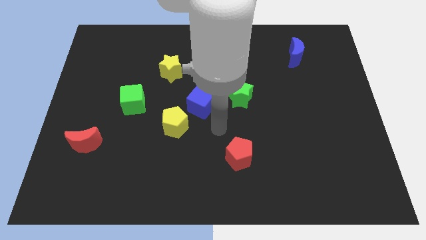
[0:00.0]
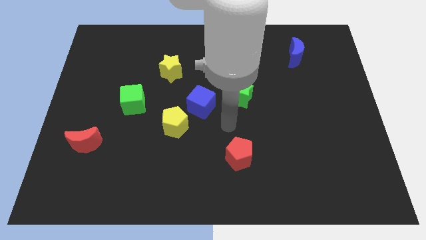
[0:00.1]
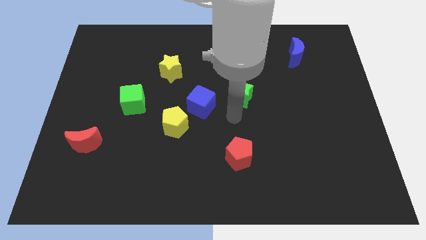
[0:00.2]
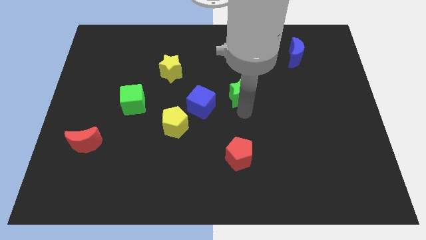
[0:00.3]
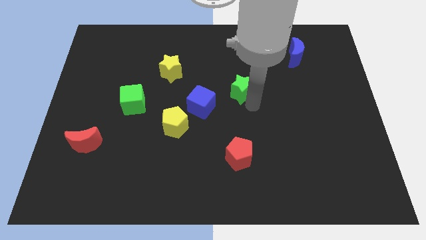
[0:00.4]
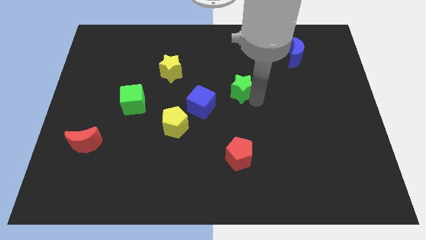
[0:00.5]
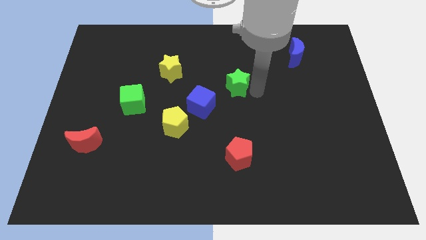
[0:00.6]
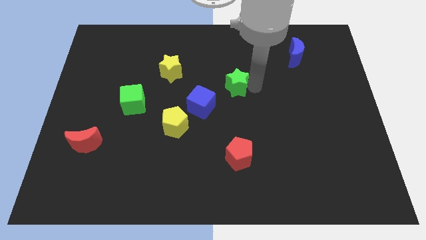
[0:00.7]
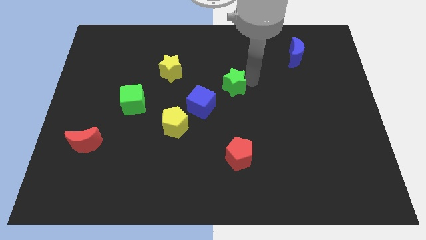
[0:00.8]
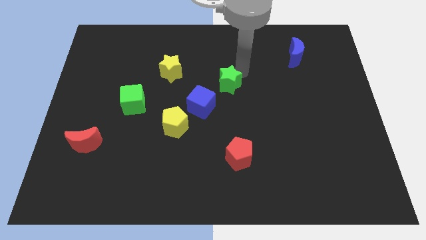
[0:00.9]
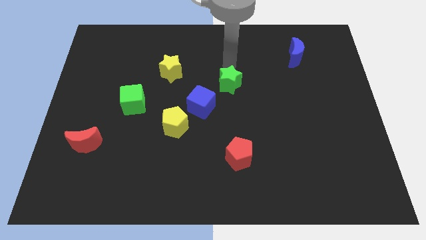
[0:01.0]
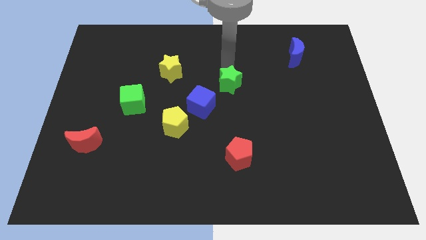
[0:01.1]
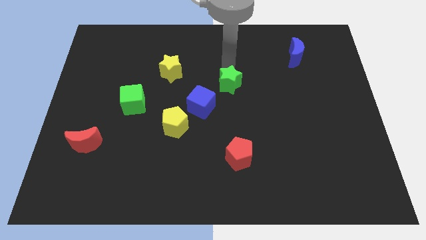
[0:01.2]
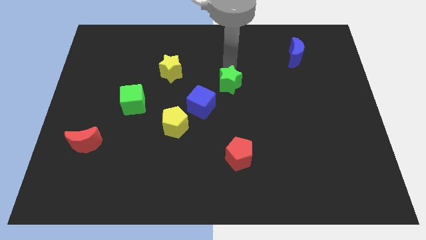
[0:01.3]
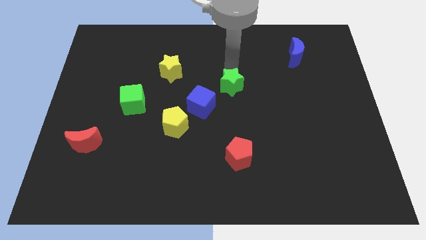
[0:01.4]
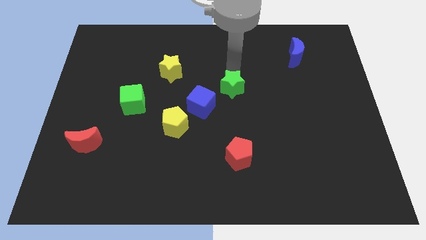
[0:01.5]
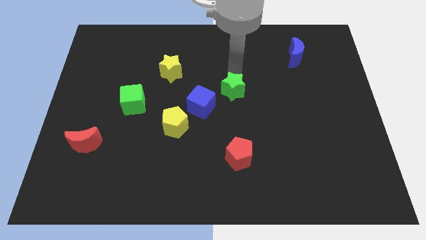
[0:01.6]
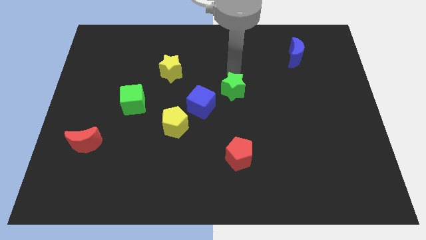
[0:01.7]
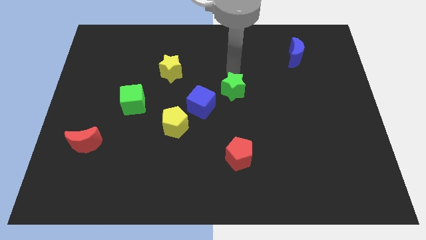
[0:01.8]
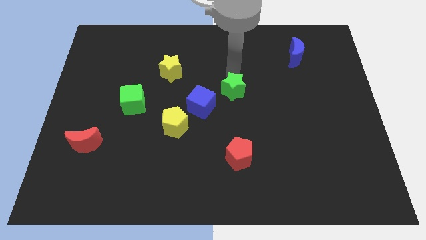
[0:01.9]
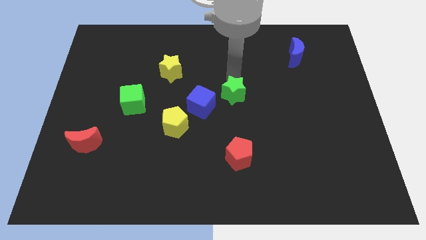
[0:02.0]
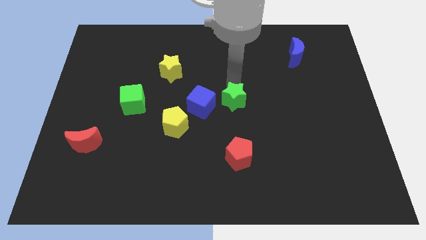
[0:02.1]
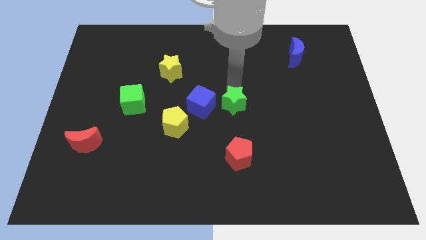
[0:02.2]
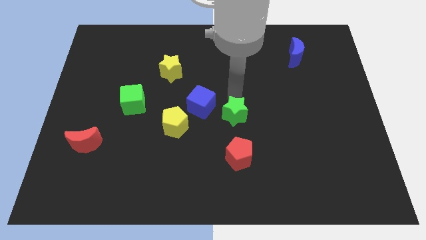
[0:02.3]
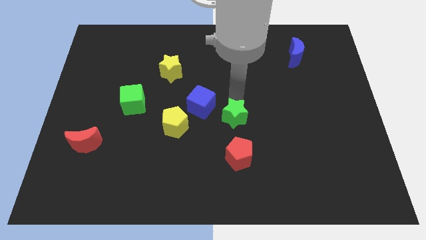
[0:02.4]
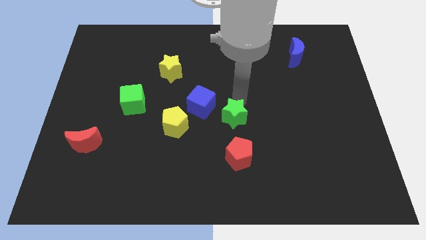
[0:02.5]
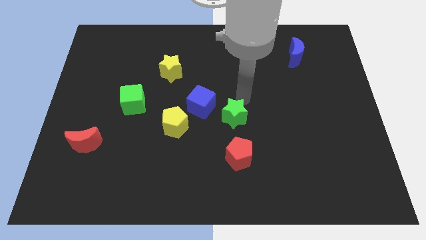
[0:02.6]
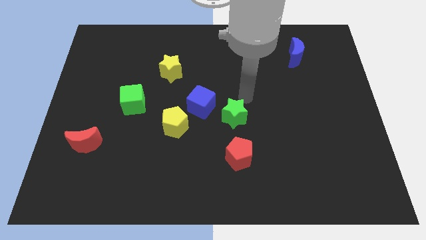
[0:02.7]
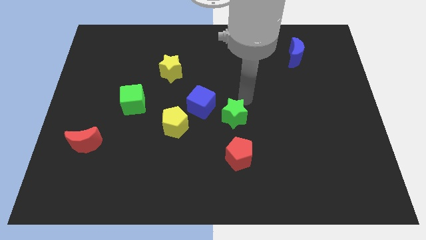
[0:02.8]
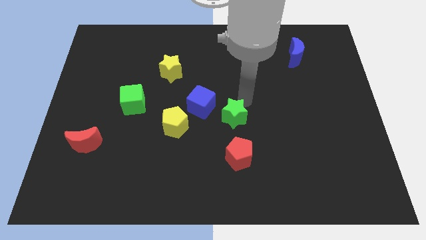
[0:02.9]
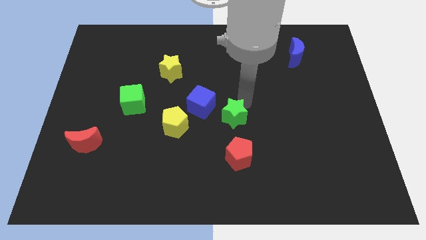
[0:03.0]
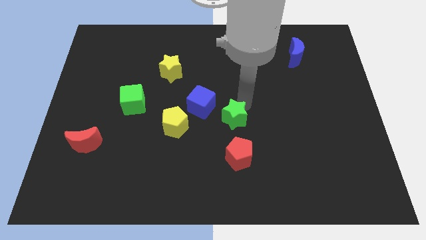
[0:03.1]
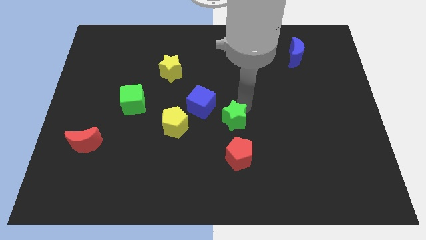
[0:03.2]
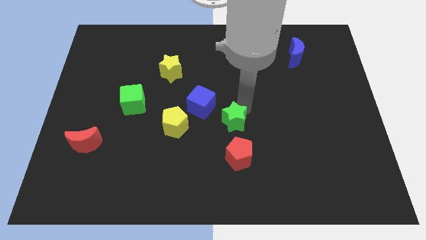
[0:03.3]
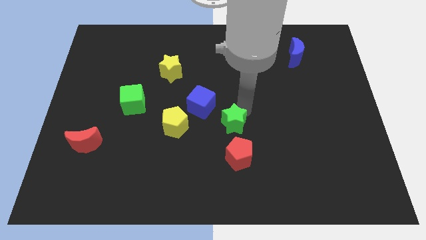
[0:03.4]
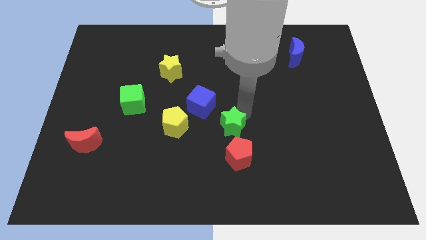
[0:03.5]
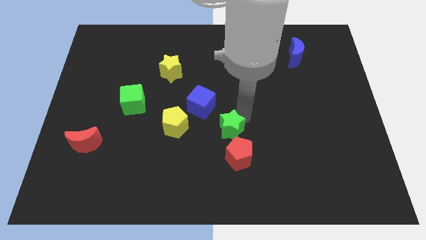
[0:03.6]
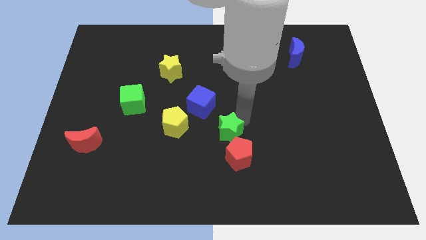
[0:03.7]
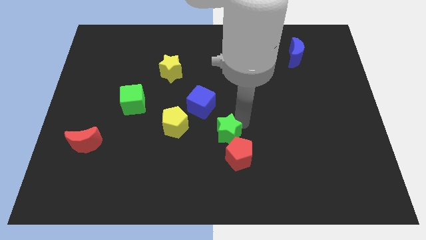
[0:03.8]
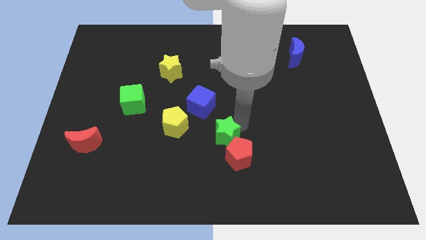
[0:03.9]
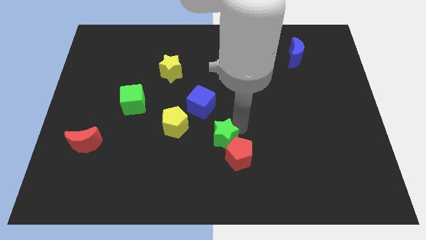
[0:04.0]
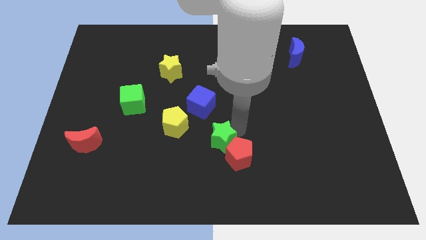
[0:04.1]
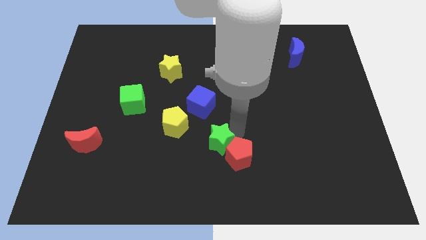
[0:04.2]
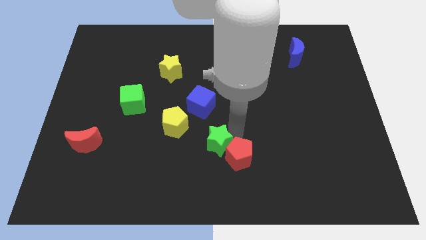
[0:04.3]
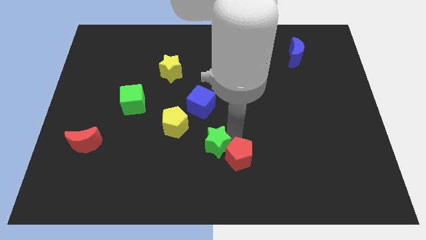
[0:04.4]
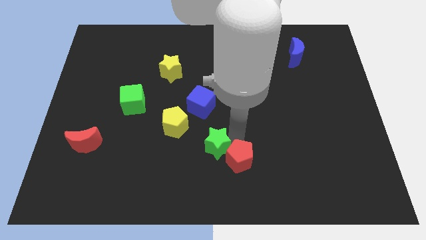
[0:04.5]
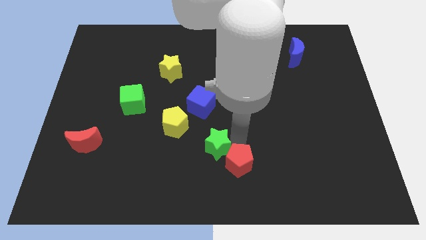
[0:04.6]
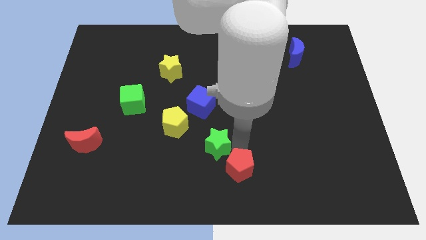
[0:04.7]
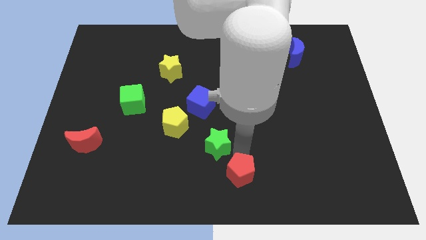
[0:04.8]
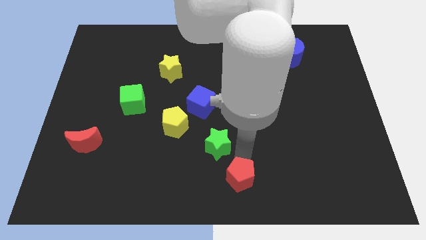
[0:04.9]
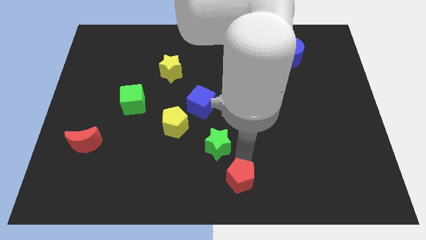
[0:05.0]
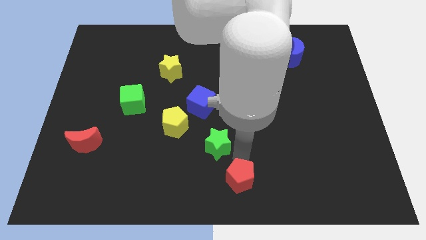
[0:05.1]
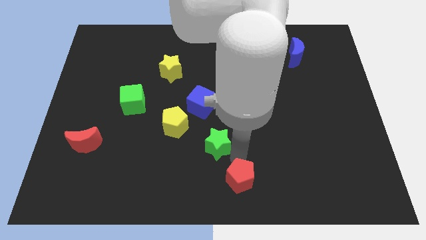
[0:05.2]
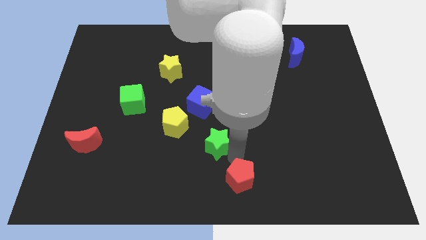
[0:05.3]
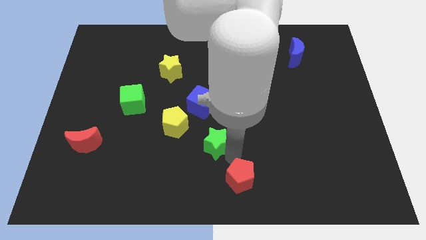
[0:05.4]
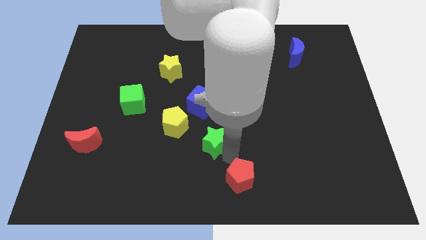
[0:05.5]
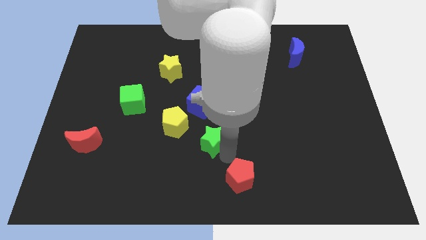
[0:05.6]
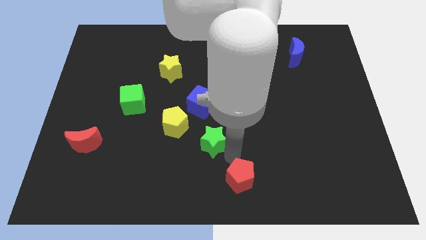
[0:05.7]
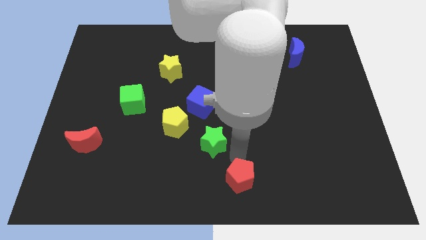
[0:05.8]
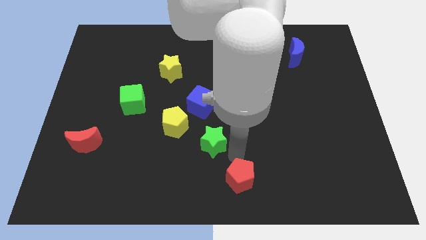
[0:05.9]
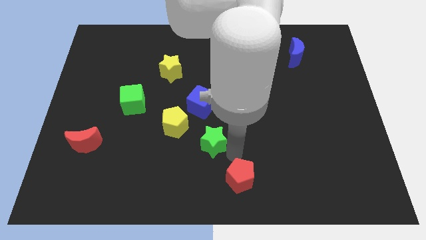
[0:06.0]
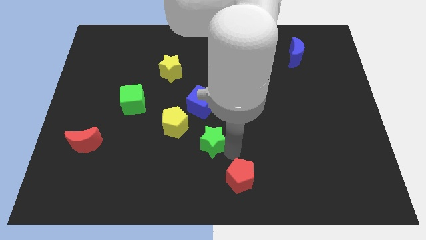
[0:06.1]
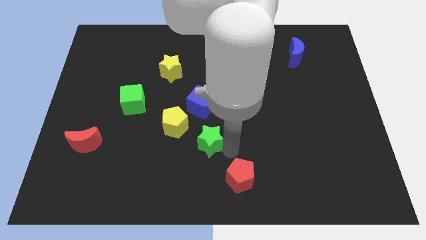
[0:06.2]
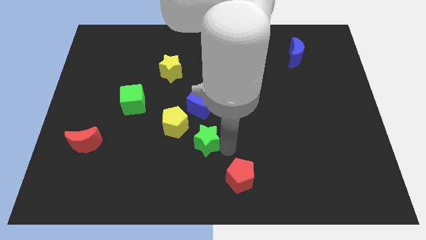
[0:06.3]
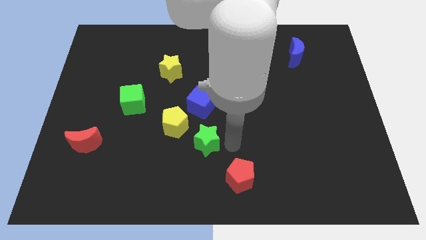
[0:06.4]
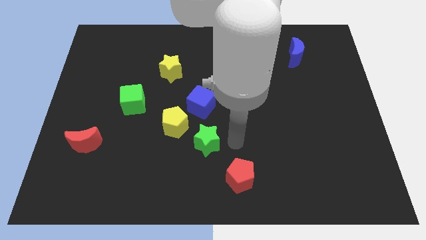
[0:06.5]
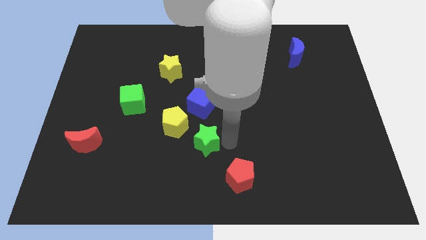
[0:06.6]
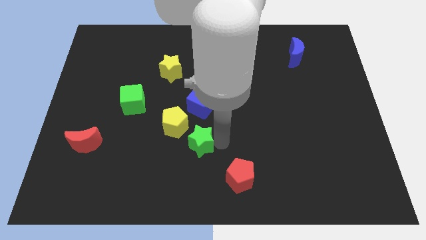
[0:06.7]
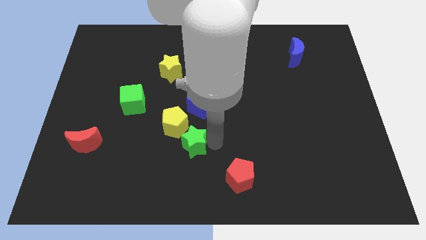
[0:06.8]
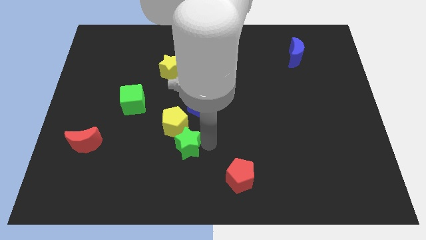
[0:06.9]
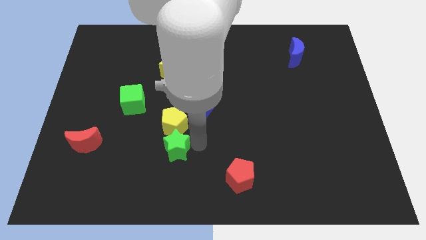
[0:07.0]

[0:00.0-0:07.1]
move the green star down and to the left diagonally

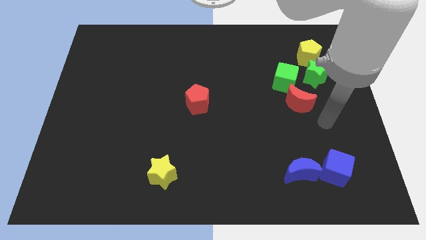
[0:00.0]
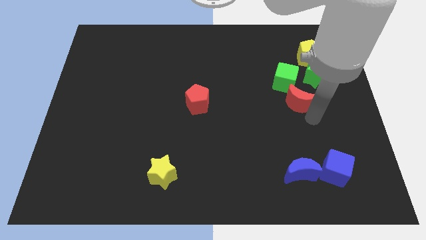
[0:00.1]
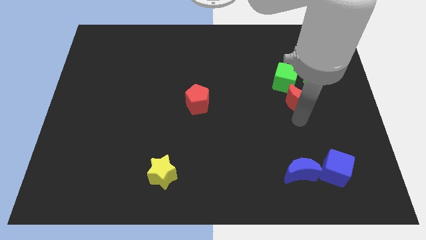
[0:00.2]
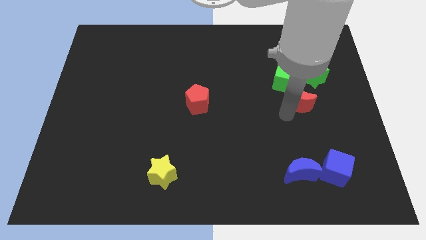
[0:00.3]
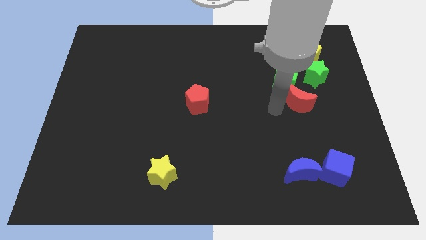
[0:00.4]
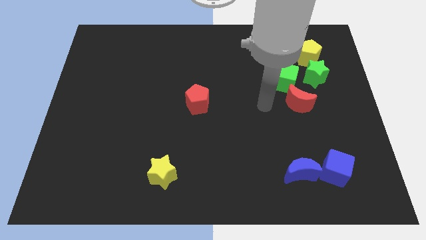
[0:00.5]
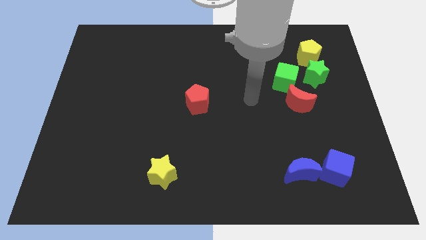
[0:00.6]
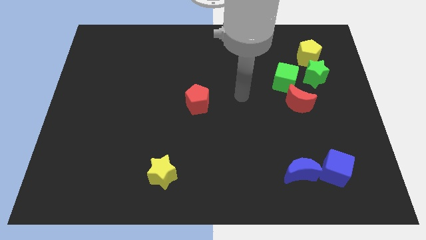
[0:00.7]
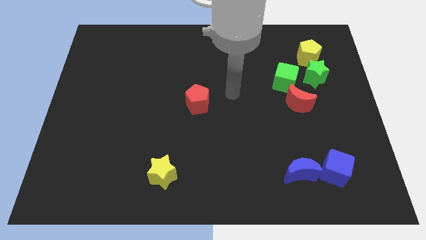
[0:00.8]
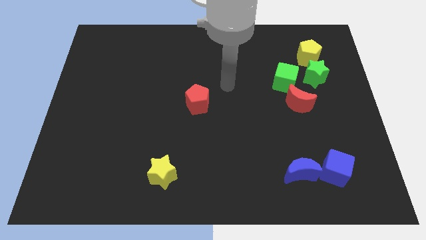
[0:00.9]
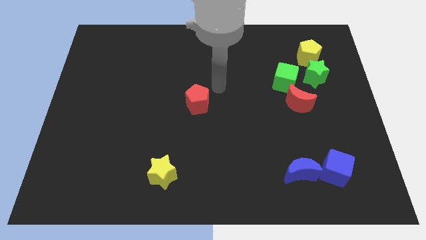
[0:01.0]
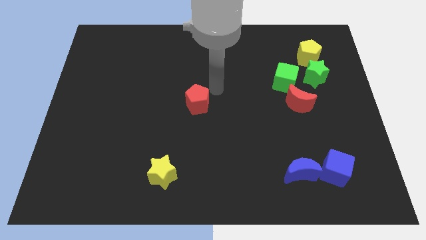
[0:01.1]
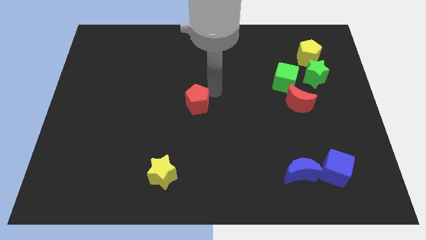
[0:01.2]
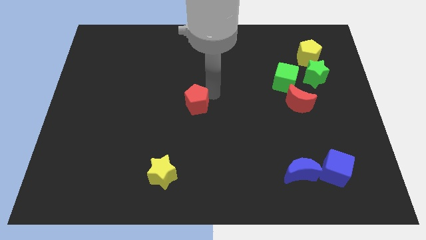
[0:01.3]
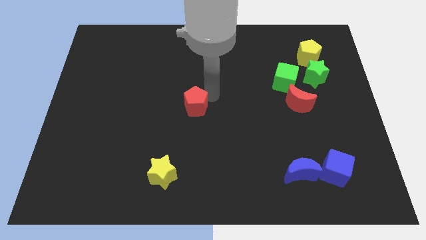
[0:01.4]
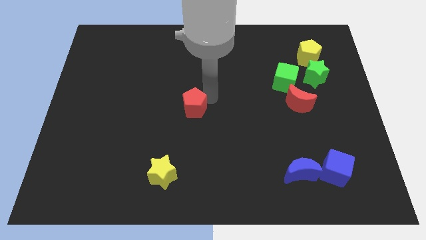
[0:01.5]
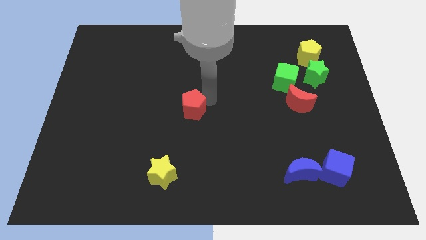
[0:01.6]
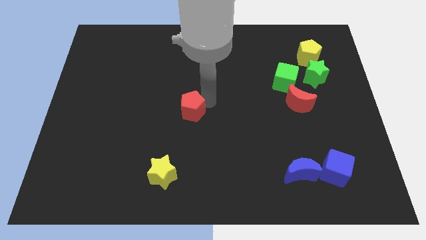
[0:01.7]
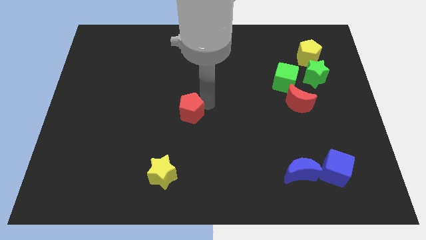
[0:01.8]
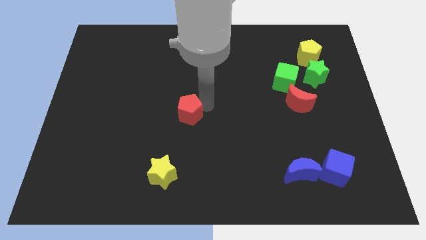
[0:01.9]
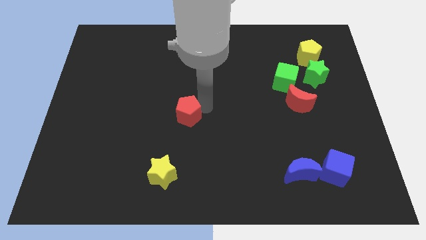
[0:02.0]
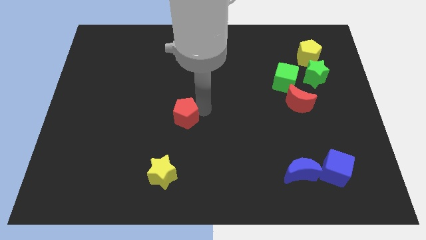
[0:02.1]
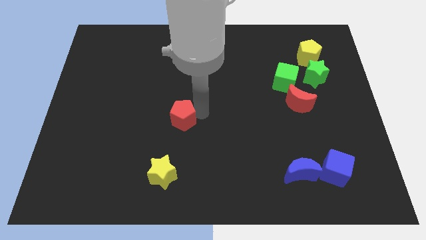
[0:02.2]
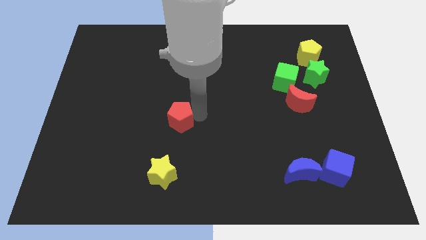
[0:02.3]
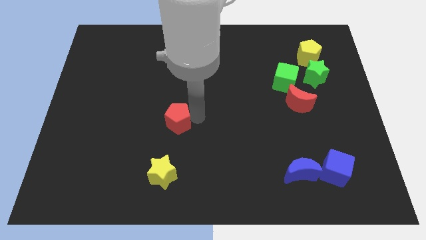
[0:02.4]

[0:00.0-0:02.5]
slide the red pentagon a little bit downwards and left diagonally
